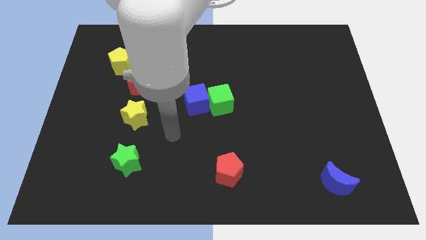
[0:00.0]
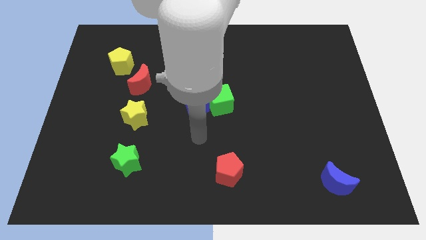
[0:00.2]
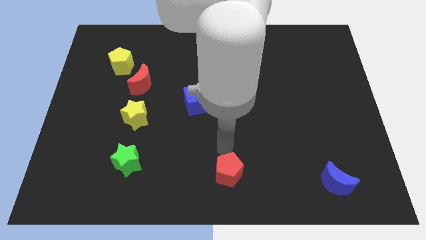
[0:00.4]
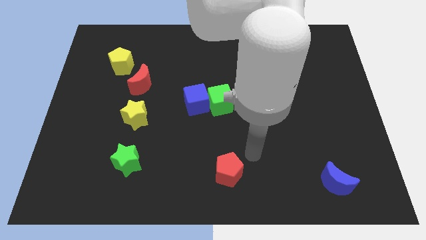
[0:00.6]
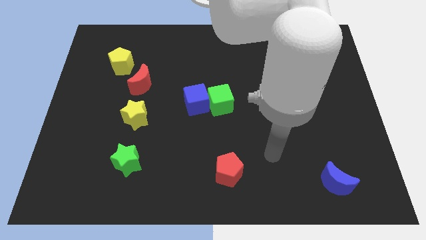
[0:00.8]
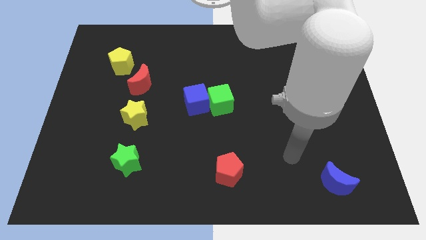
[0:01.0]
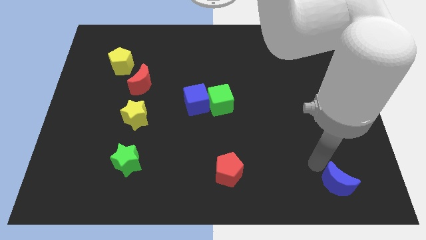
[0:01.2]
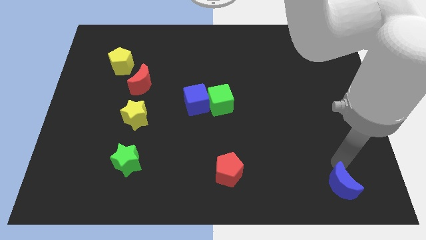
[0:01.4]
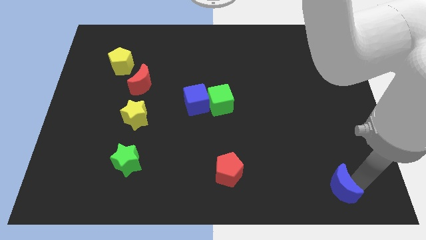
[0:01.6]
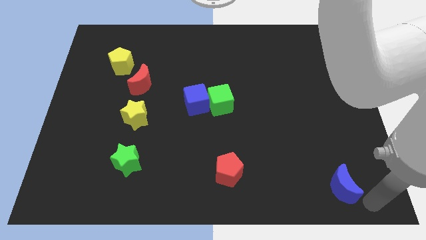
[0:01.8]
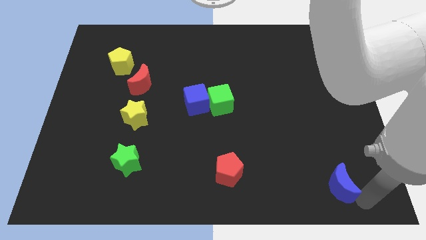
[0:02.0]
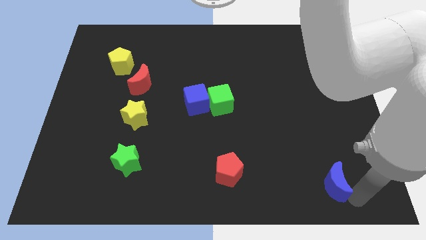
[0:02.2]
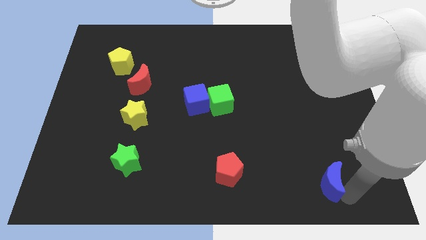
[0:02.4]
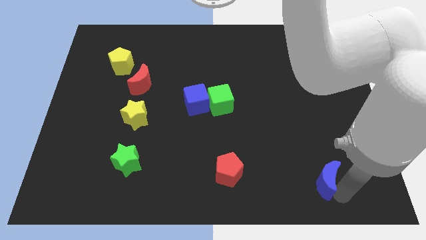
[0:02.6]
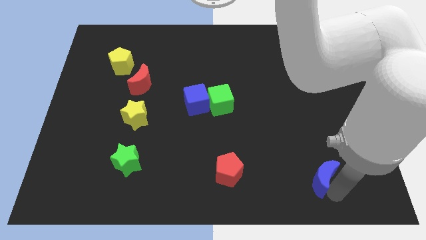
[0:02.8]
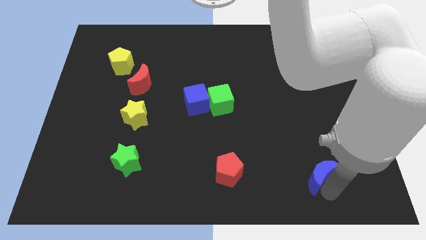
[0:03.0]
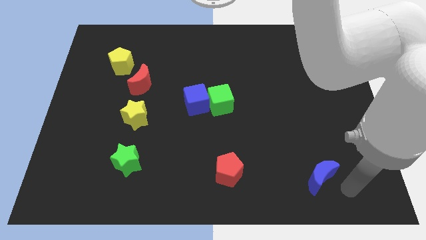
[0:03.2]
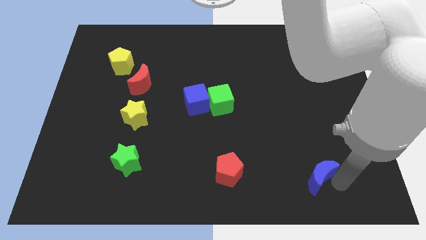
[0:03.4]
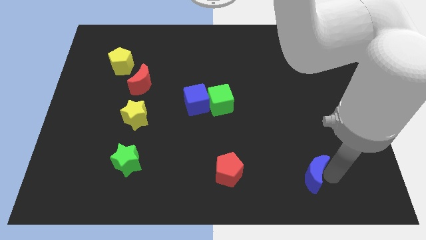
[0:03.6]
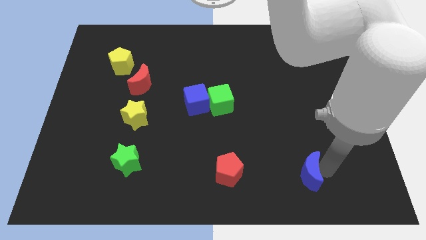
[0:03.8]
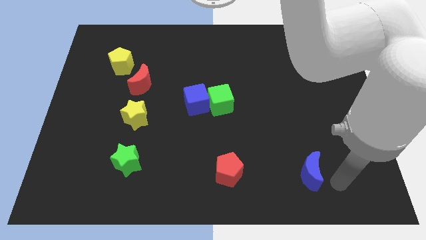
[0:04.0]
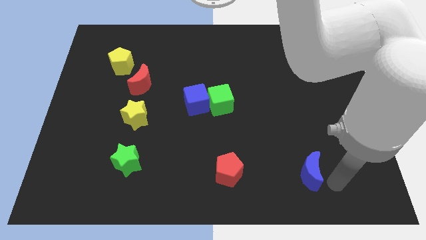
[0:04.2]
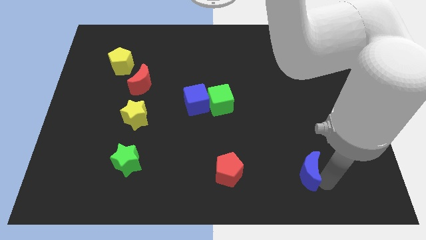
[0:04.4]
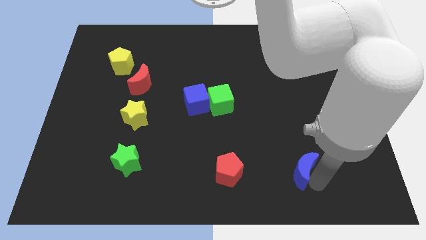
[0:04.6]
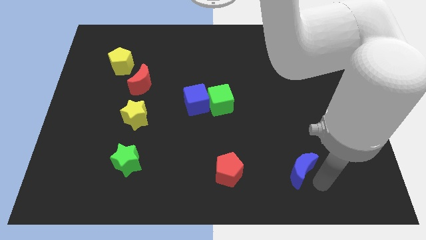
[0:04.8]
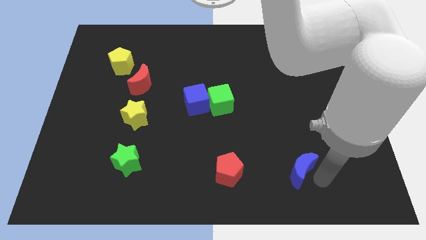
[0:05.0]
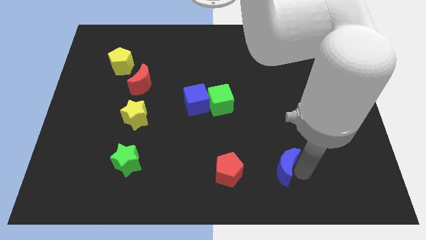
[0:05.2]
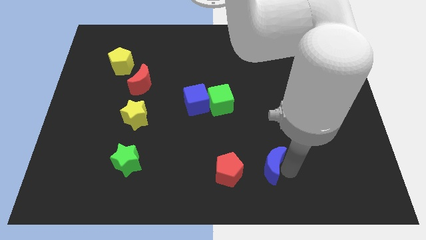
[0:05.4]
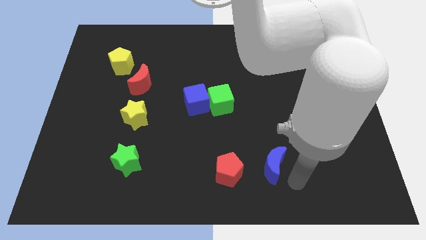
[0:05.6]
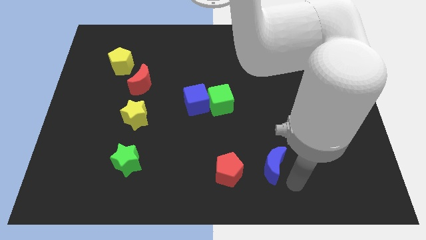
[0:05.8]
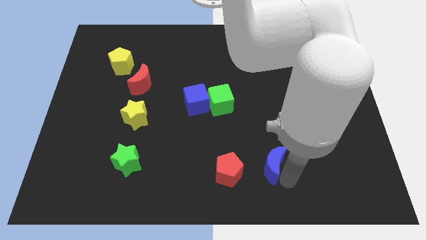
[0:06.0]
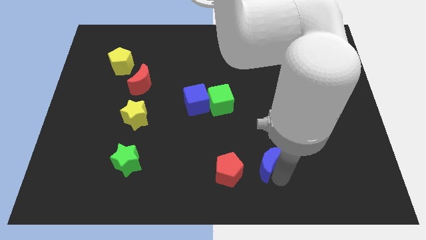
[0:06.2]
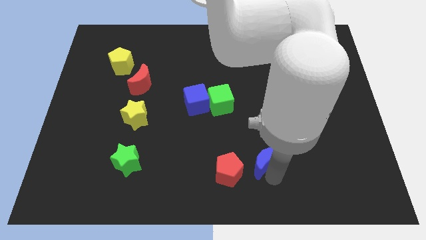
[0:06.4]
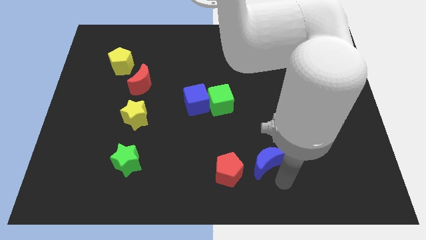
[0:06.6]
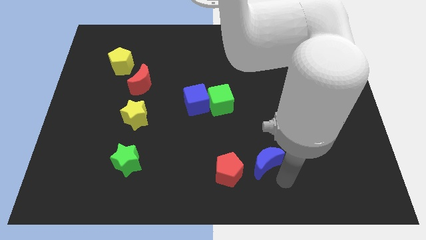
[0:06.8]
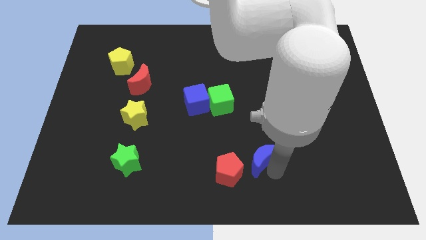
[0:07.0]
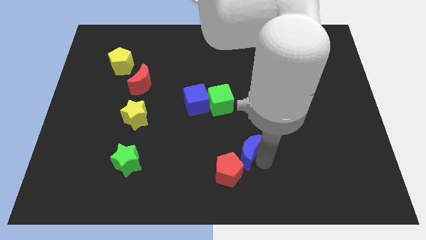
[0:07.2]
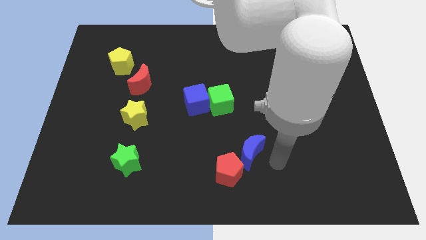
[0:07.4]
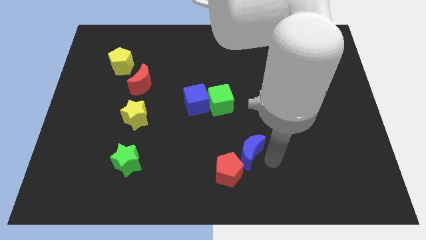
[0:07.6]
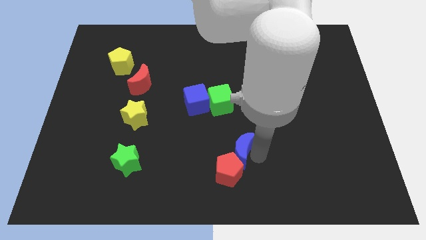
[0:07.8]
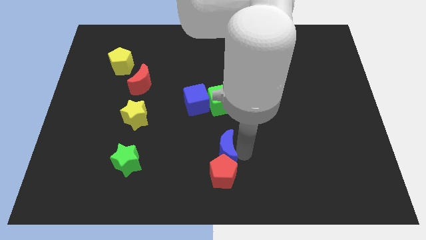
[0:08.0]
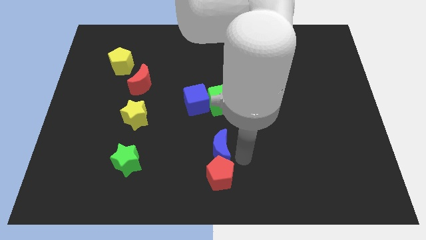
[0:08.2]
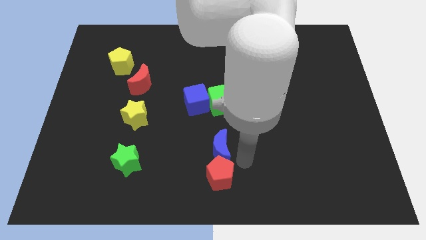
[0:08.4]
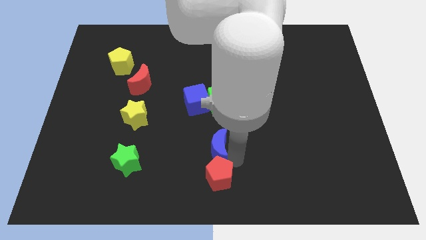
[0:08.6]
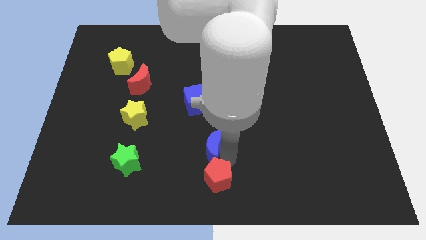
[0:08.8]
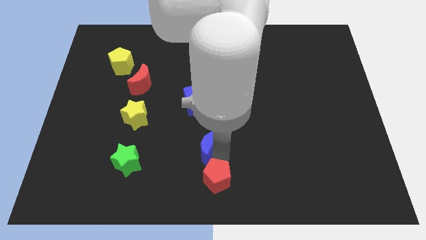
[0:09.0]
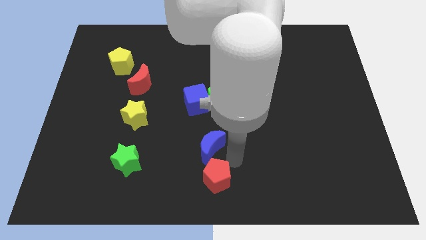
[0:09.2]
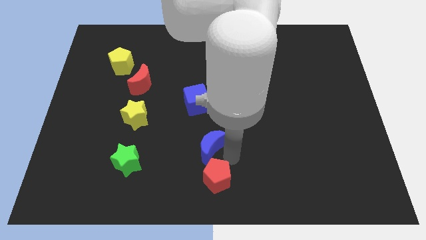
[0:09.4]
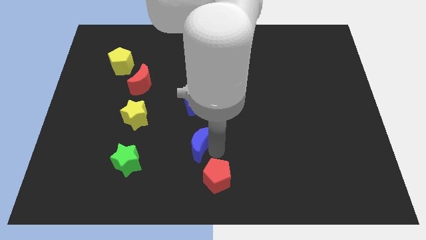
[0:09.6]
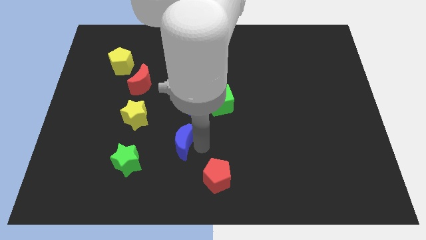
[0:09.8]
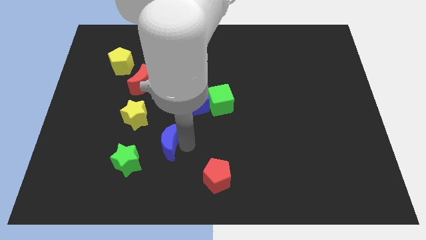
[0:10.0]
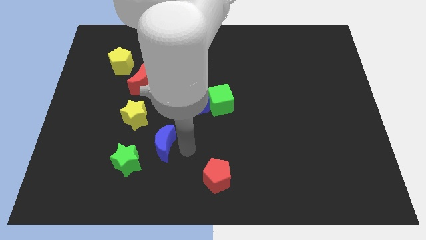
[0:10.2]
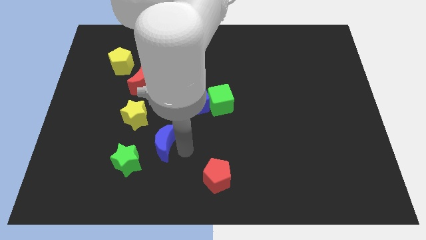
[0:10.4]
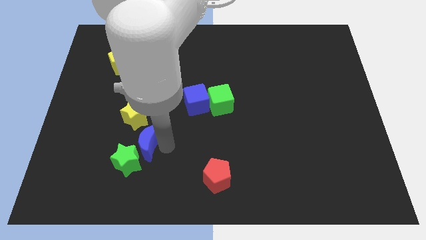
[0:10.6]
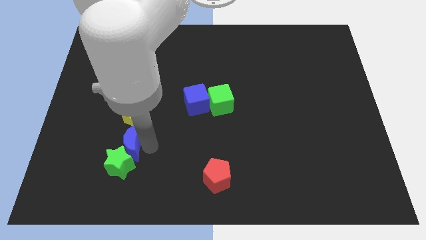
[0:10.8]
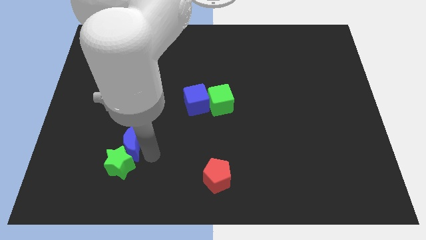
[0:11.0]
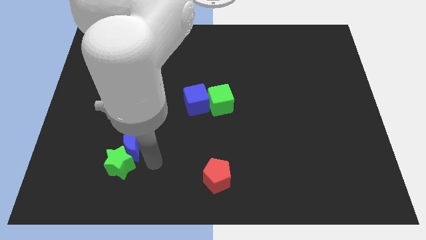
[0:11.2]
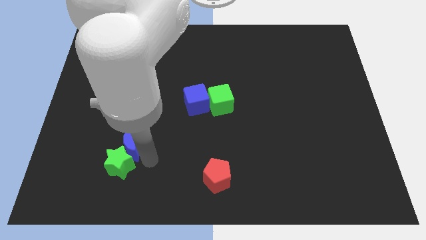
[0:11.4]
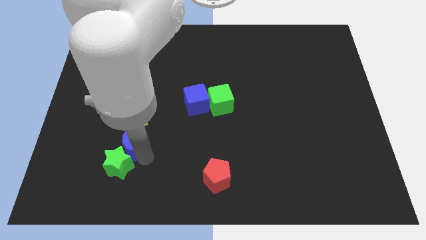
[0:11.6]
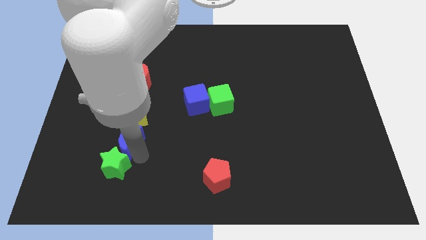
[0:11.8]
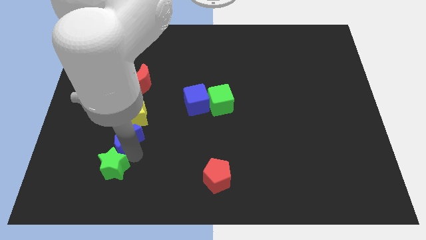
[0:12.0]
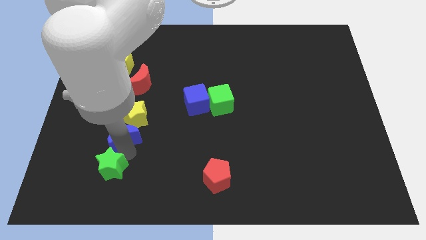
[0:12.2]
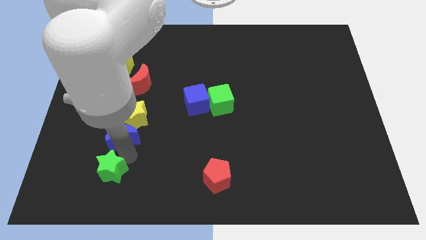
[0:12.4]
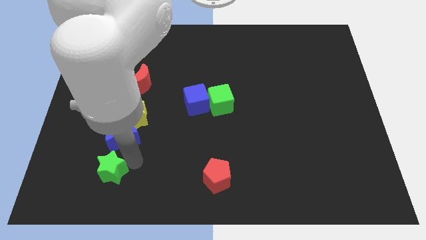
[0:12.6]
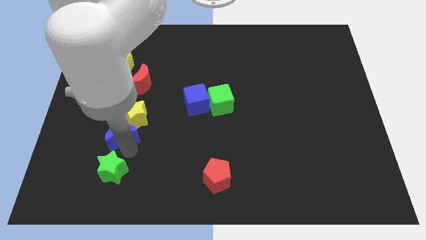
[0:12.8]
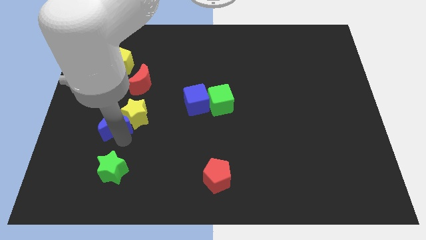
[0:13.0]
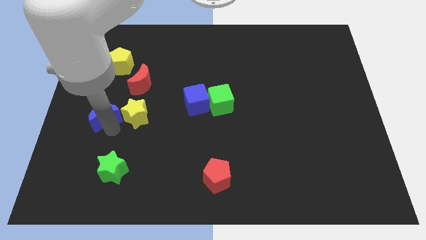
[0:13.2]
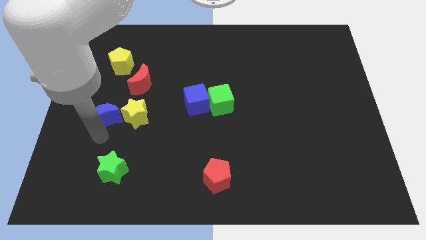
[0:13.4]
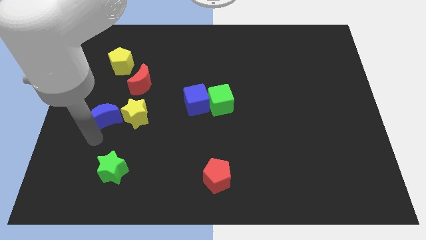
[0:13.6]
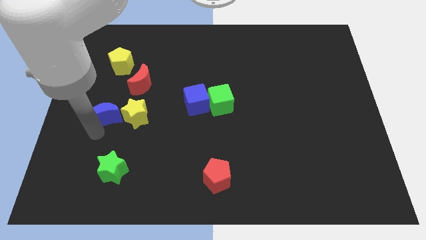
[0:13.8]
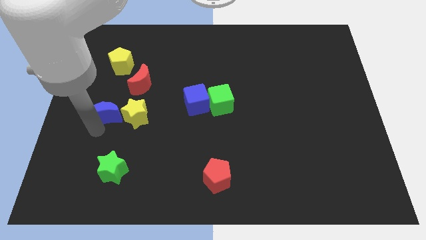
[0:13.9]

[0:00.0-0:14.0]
push the blue moon to the top left of the yellow star
